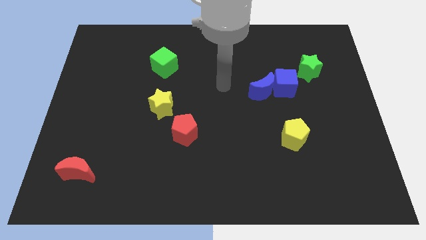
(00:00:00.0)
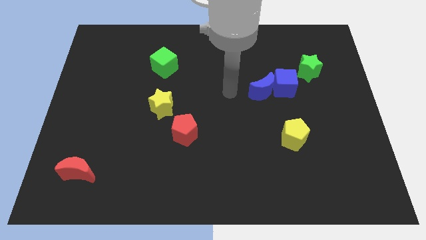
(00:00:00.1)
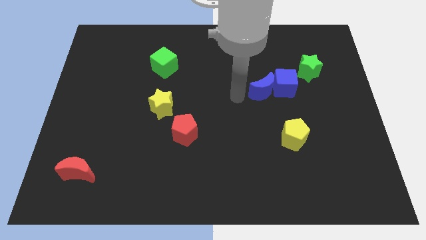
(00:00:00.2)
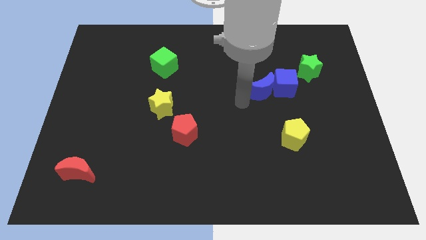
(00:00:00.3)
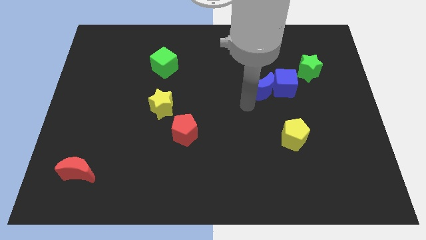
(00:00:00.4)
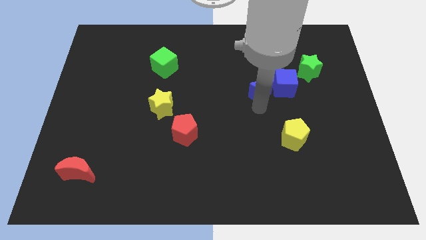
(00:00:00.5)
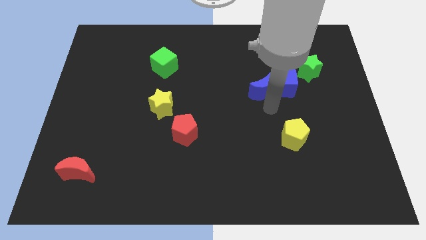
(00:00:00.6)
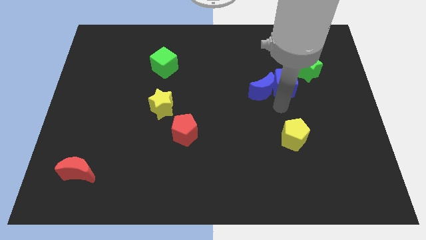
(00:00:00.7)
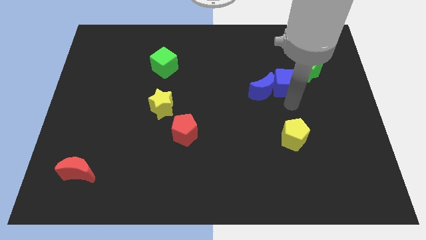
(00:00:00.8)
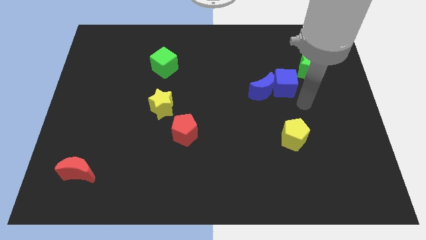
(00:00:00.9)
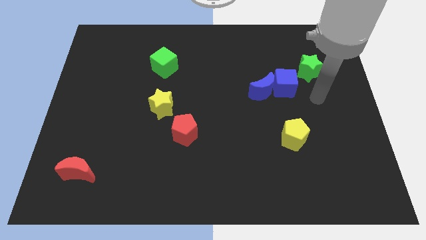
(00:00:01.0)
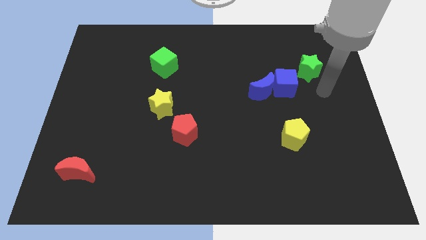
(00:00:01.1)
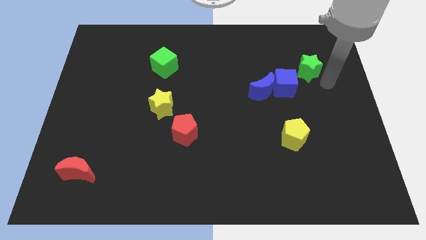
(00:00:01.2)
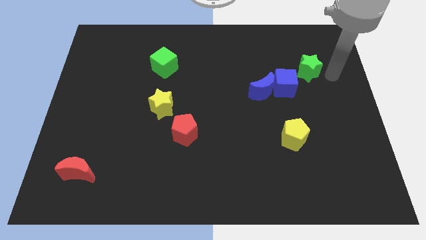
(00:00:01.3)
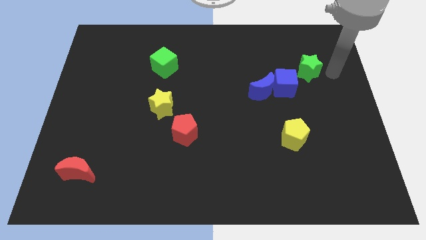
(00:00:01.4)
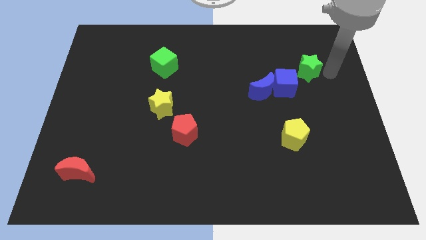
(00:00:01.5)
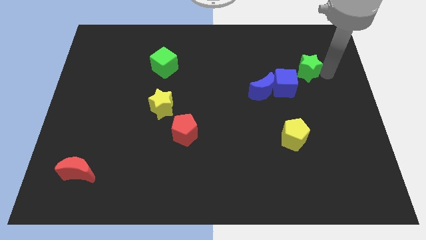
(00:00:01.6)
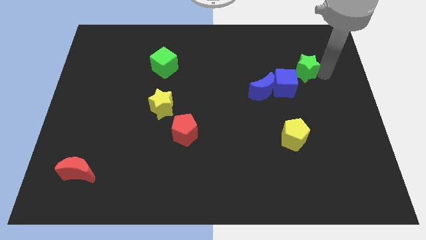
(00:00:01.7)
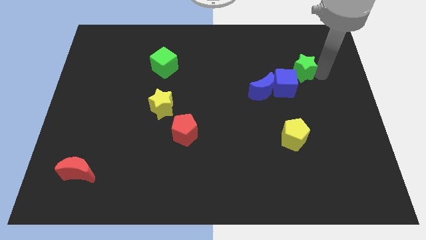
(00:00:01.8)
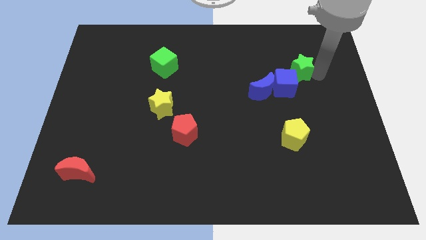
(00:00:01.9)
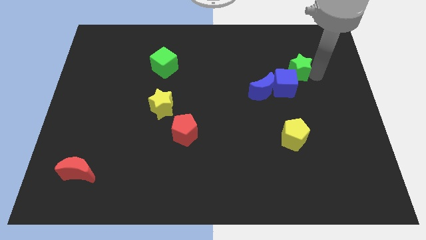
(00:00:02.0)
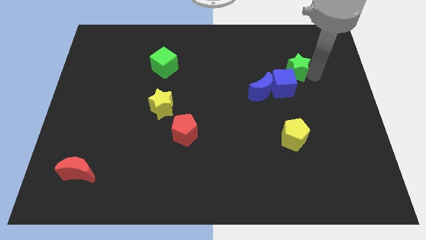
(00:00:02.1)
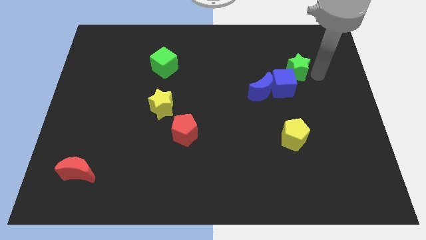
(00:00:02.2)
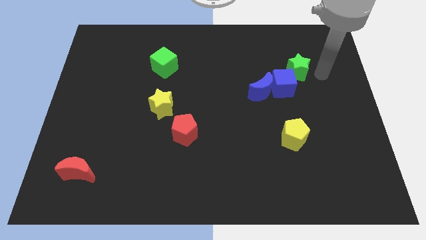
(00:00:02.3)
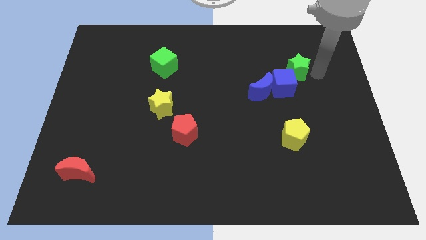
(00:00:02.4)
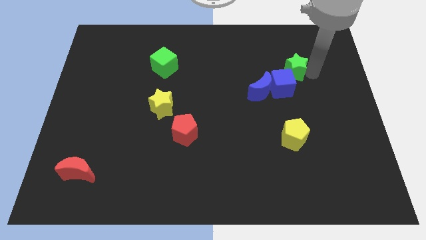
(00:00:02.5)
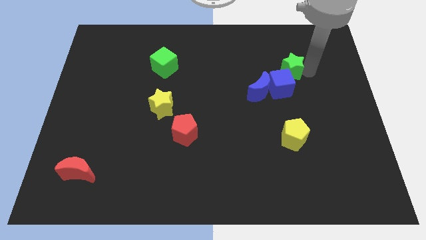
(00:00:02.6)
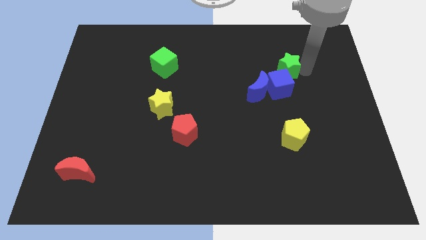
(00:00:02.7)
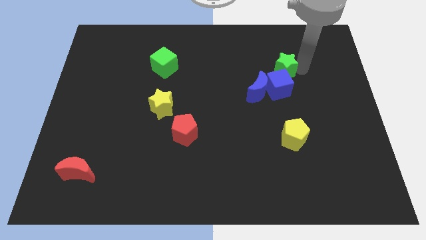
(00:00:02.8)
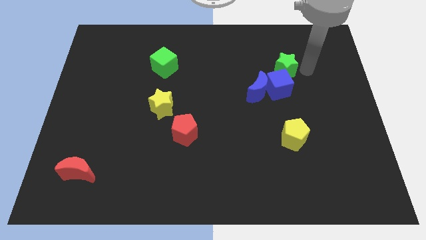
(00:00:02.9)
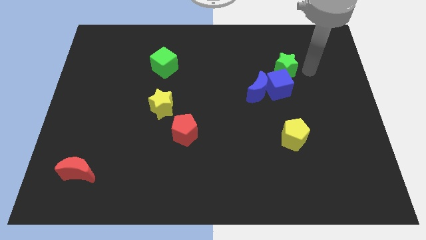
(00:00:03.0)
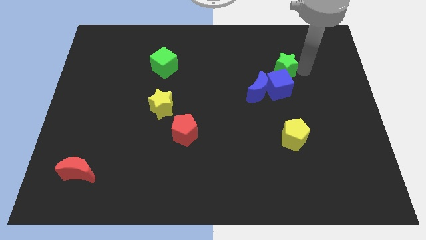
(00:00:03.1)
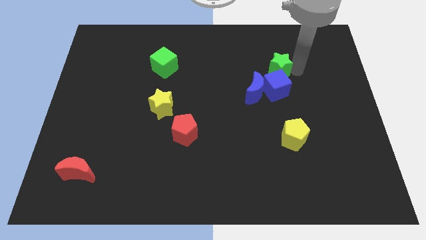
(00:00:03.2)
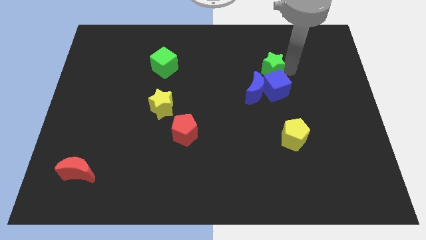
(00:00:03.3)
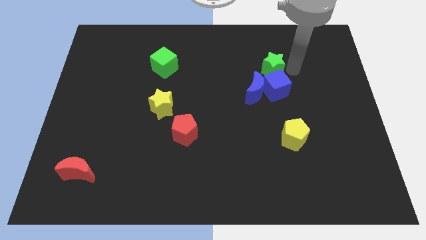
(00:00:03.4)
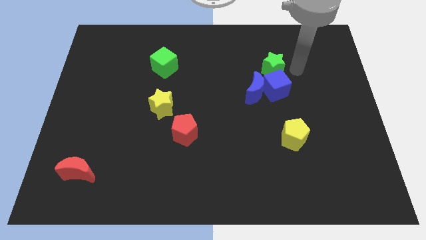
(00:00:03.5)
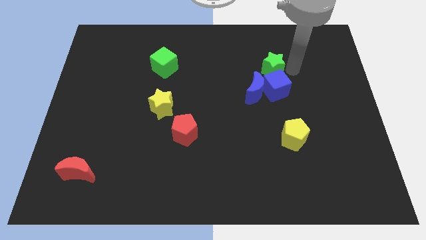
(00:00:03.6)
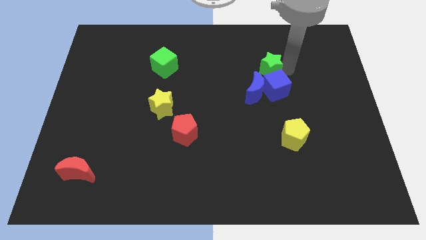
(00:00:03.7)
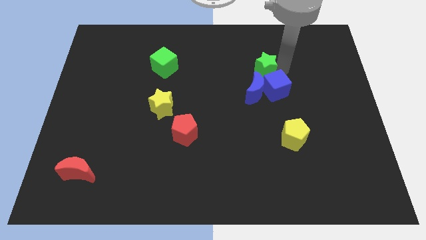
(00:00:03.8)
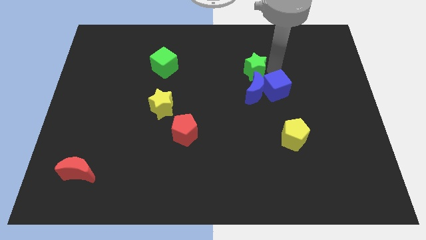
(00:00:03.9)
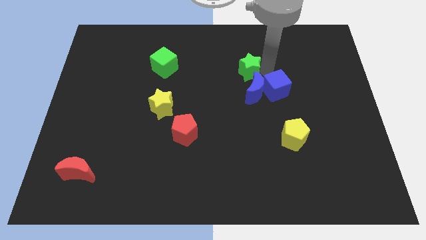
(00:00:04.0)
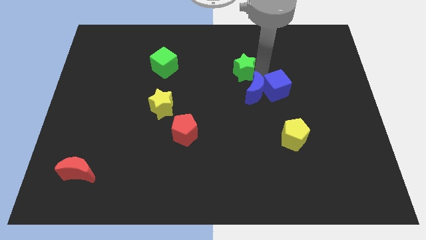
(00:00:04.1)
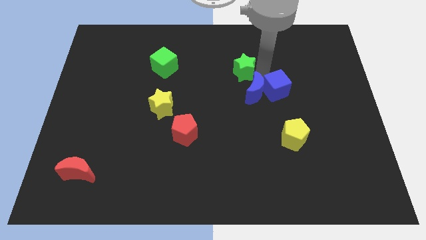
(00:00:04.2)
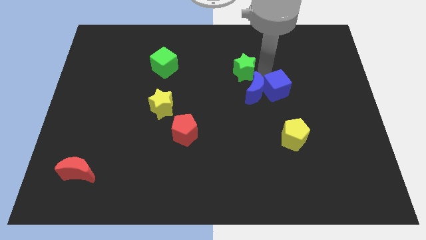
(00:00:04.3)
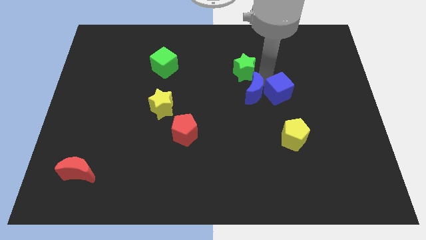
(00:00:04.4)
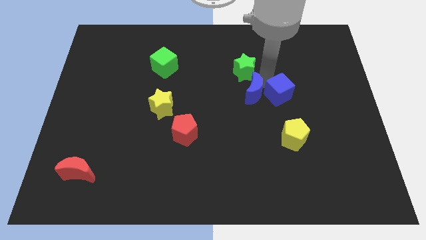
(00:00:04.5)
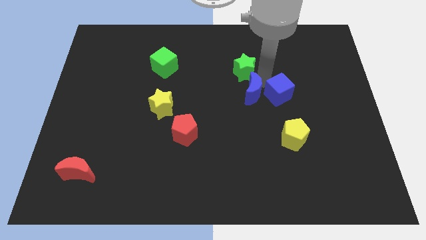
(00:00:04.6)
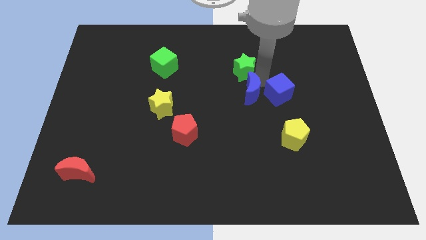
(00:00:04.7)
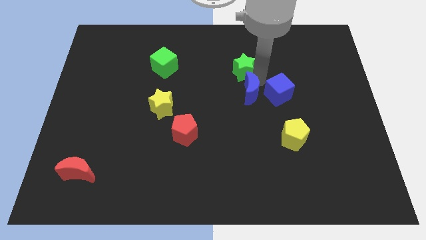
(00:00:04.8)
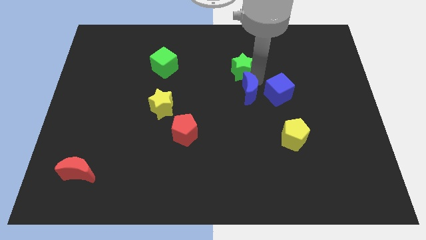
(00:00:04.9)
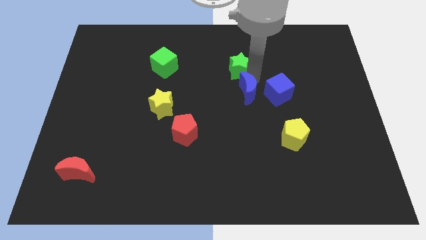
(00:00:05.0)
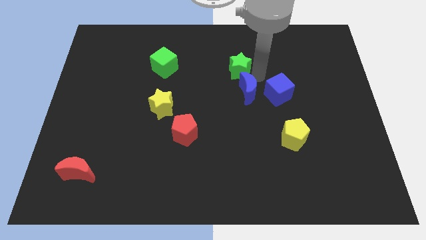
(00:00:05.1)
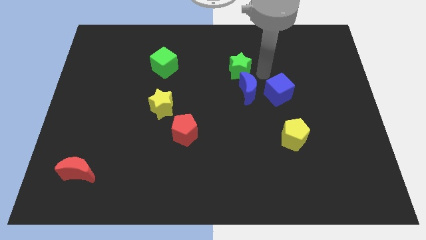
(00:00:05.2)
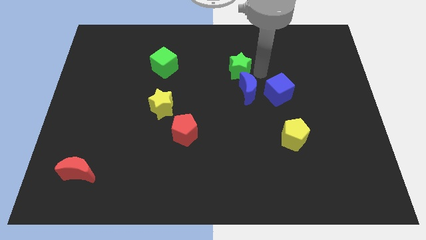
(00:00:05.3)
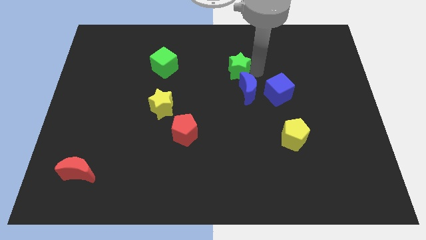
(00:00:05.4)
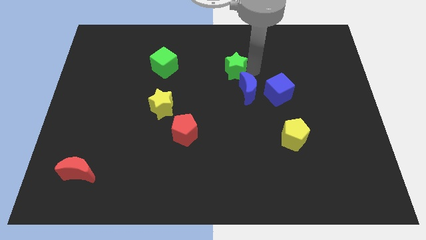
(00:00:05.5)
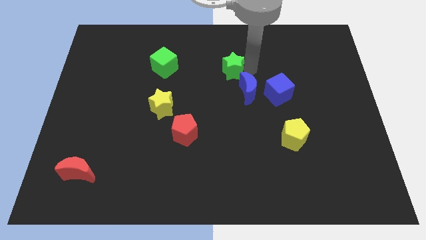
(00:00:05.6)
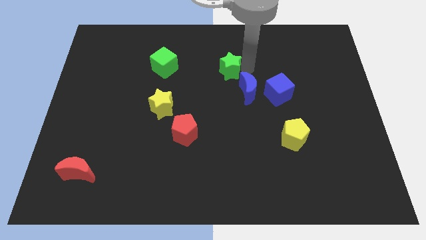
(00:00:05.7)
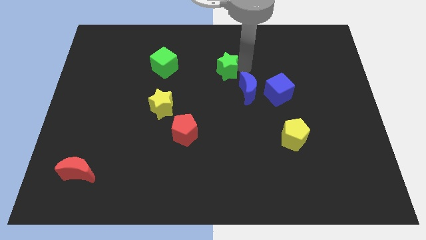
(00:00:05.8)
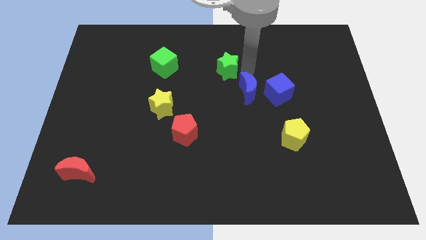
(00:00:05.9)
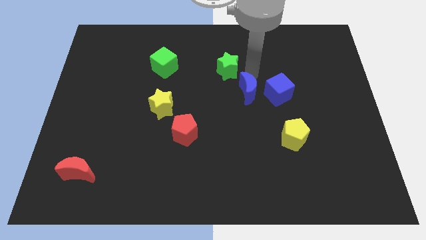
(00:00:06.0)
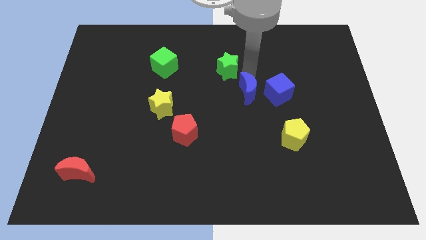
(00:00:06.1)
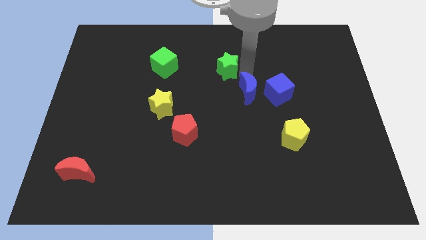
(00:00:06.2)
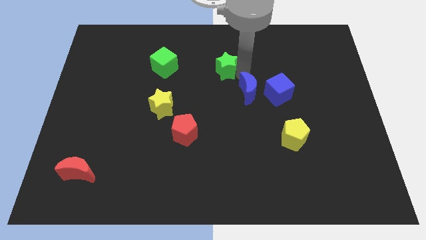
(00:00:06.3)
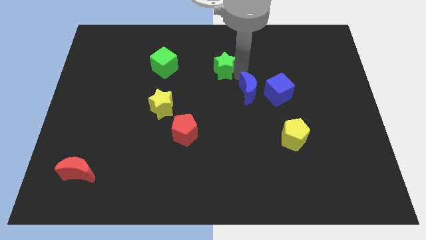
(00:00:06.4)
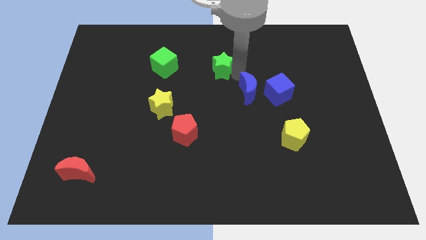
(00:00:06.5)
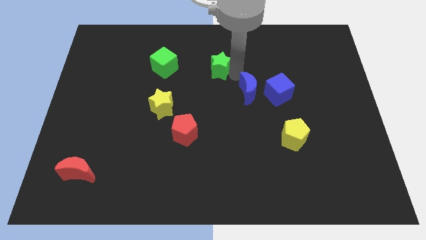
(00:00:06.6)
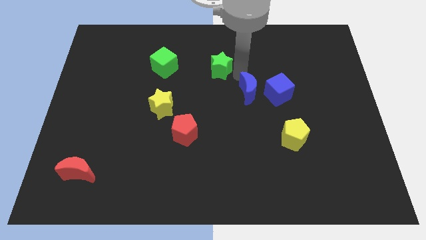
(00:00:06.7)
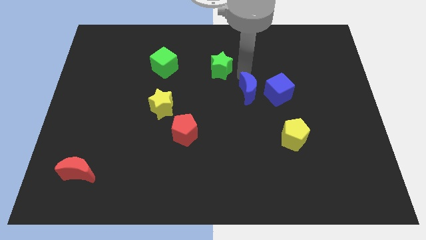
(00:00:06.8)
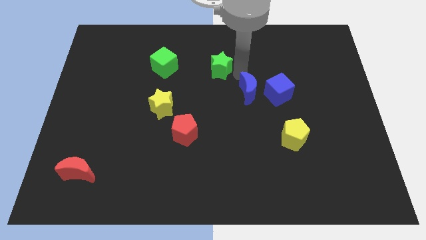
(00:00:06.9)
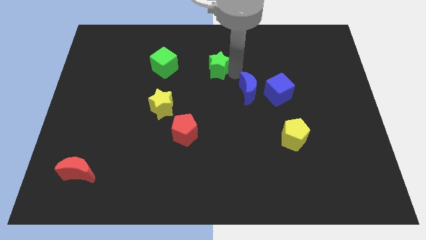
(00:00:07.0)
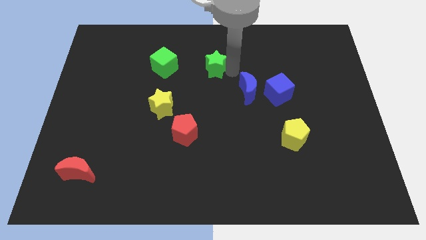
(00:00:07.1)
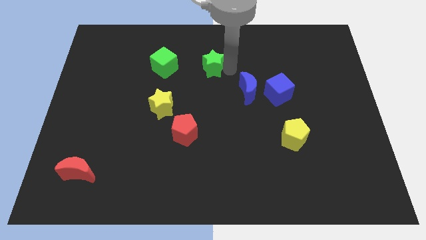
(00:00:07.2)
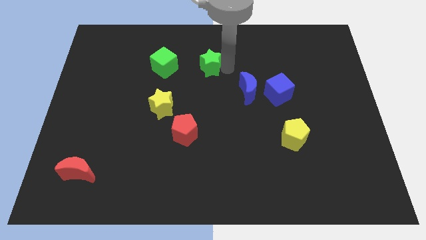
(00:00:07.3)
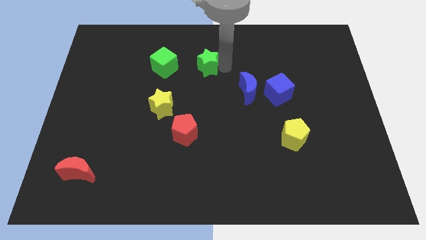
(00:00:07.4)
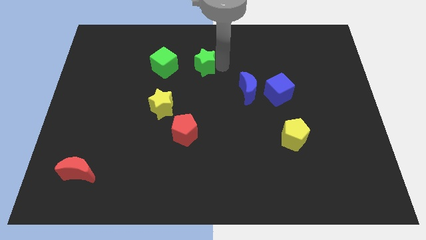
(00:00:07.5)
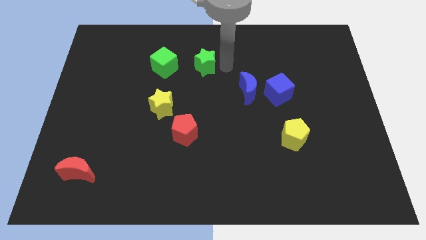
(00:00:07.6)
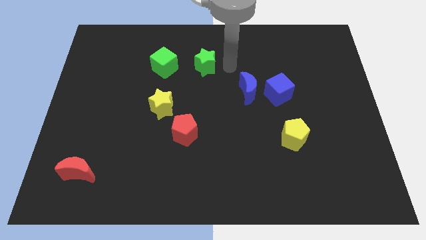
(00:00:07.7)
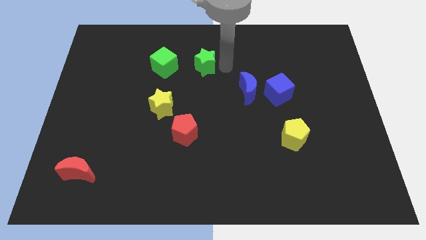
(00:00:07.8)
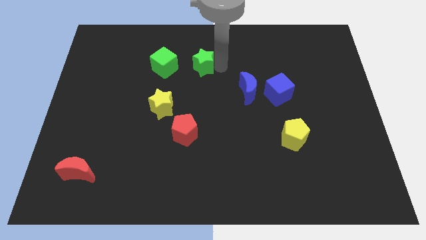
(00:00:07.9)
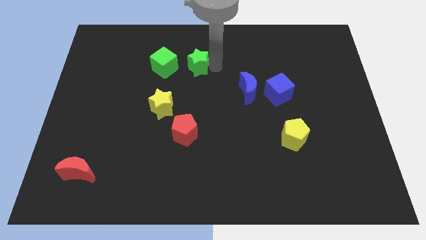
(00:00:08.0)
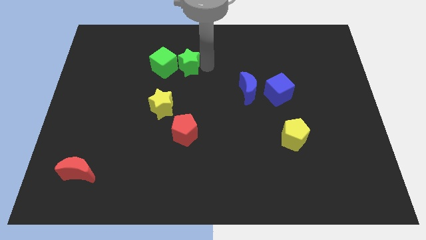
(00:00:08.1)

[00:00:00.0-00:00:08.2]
push the green star towards the green cube
